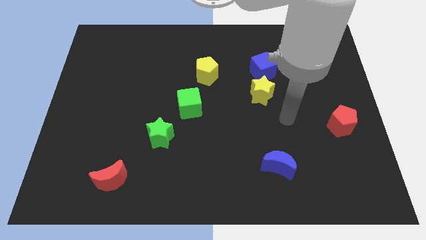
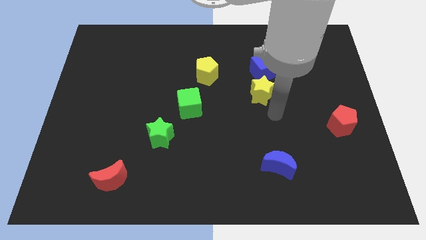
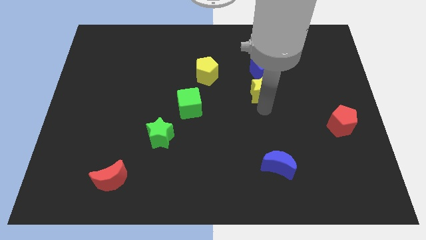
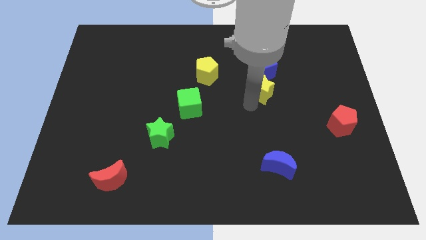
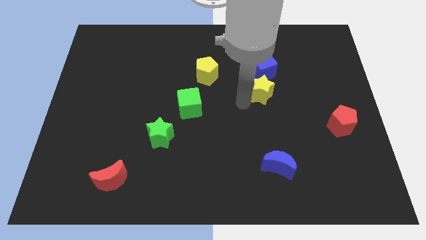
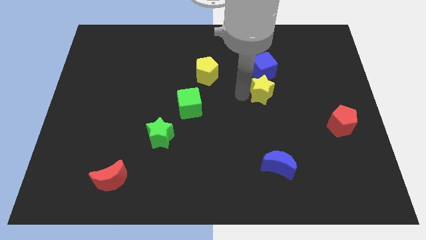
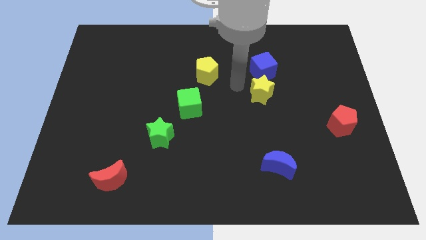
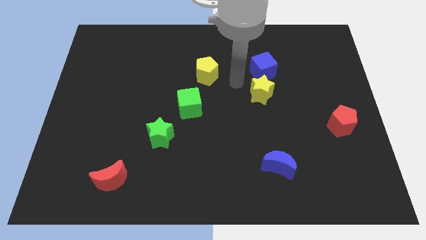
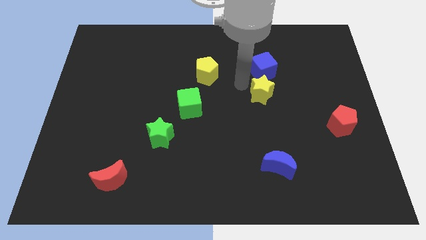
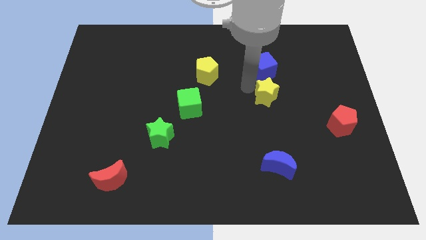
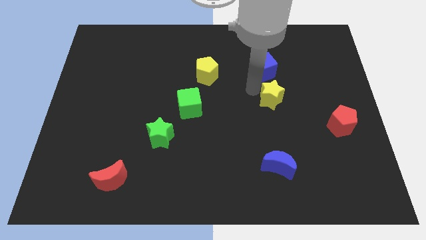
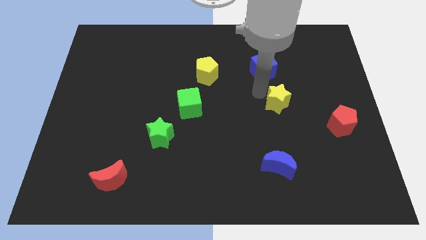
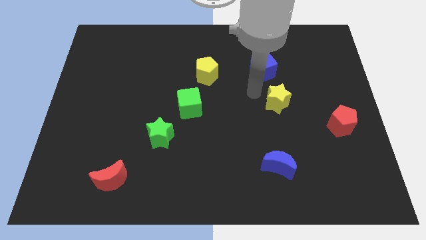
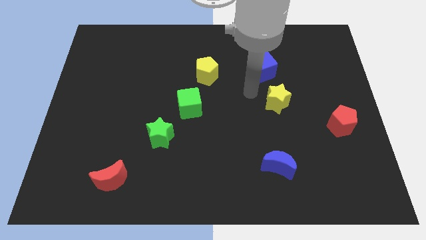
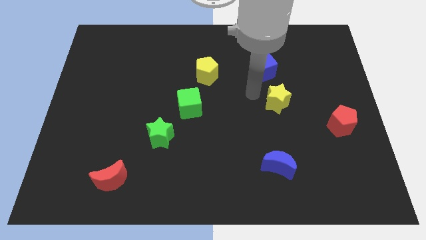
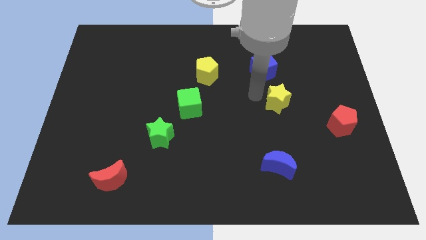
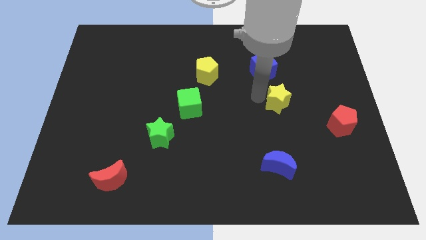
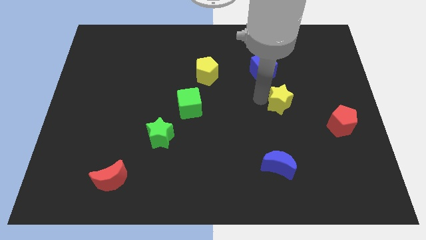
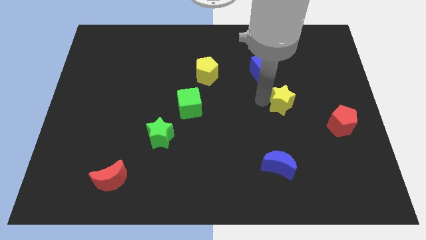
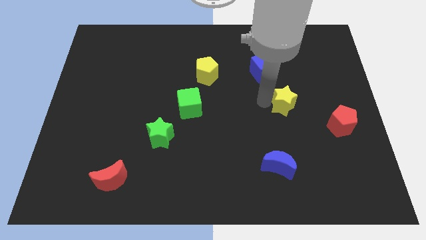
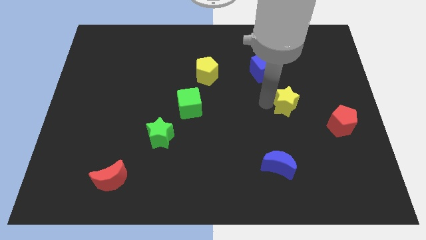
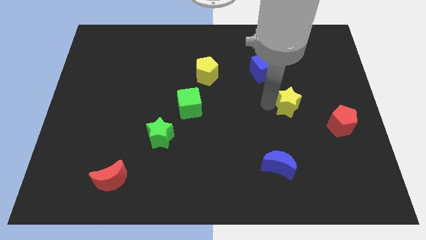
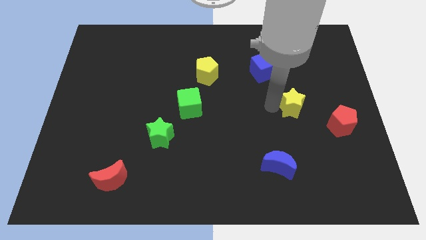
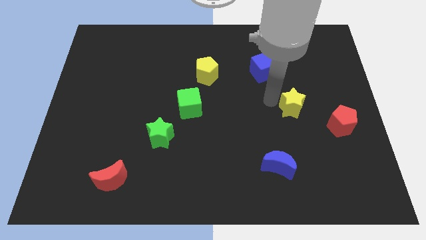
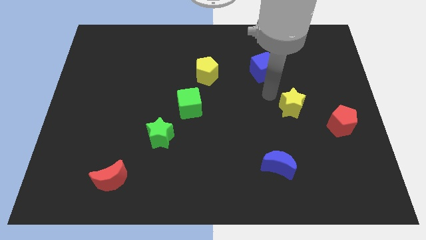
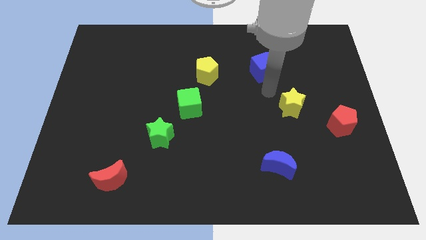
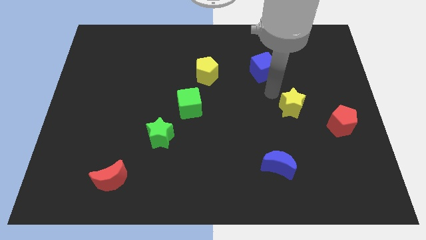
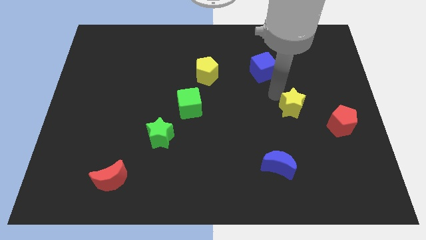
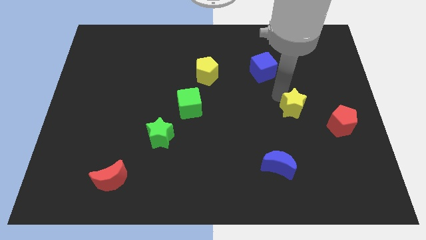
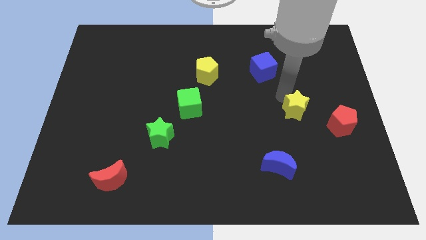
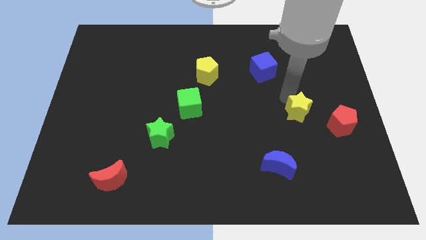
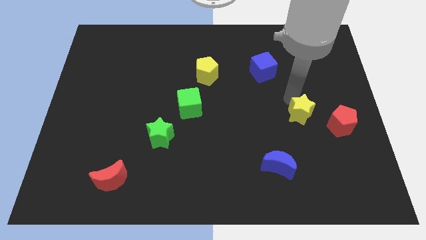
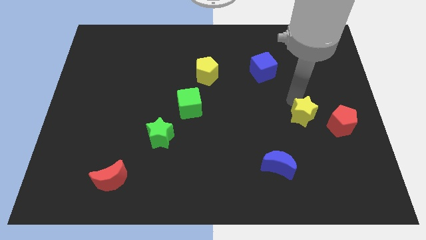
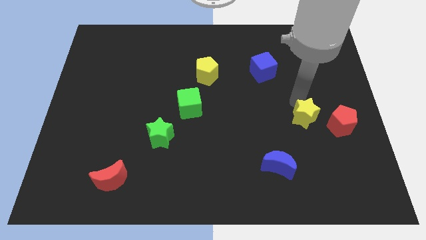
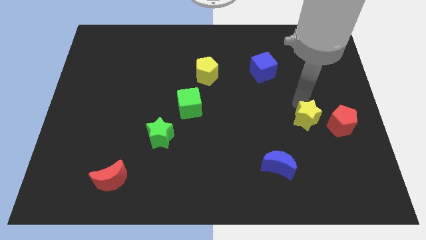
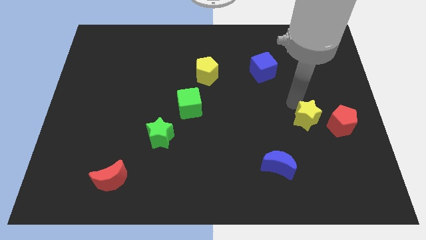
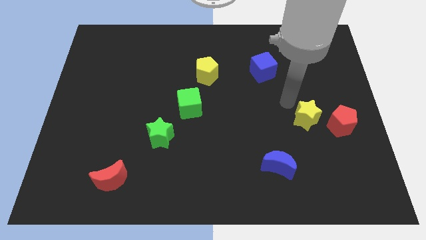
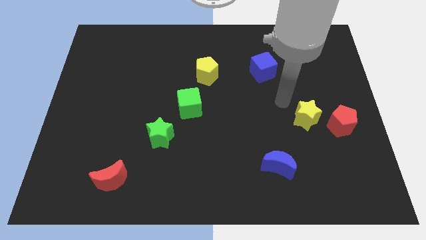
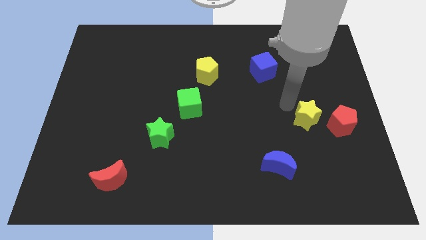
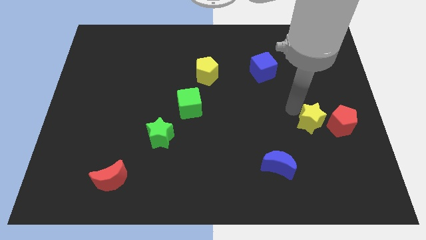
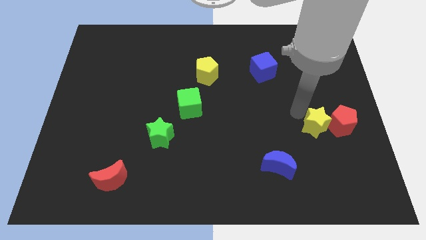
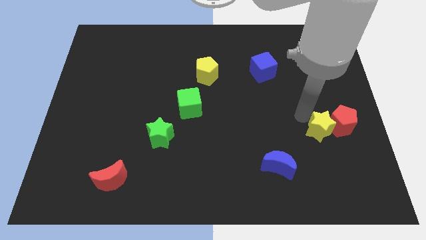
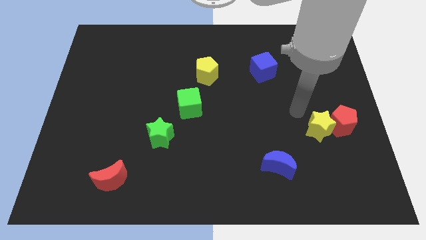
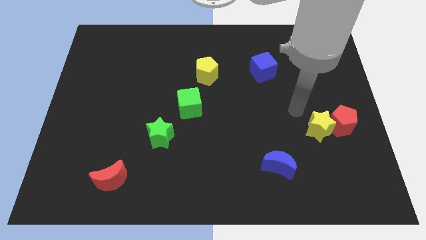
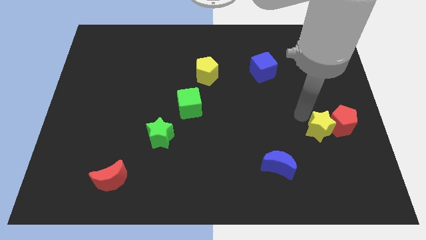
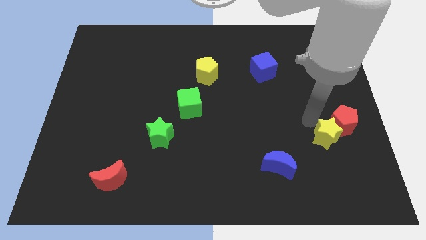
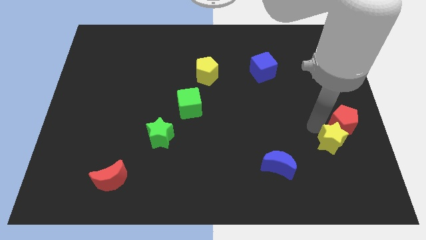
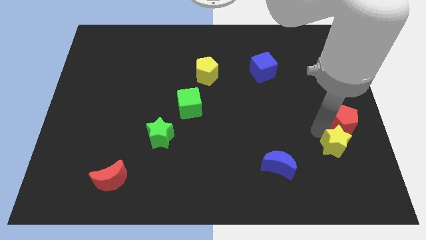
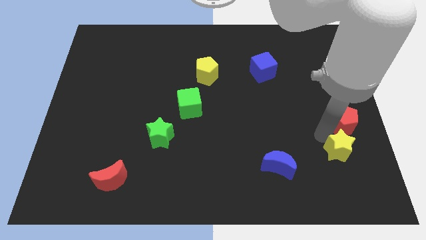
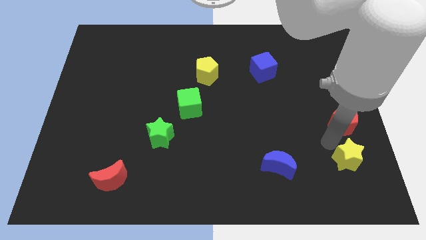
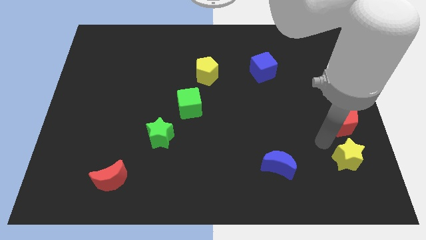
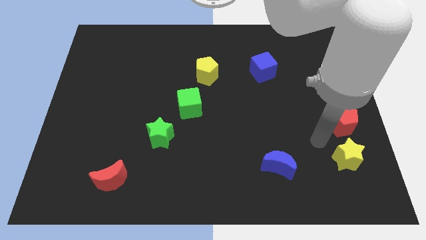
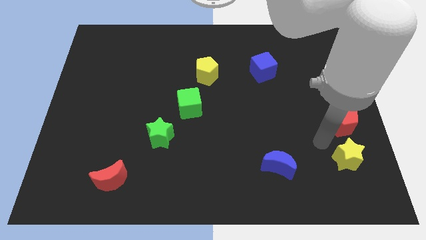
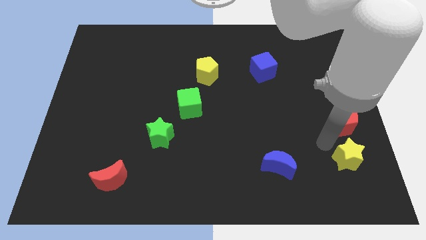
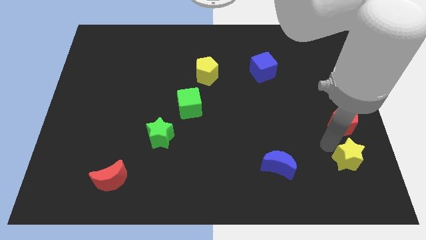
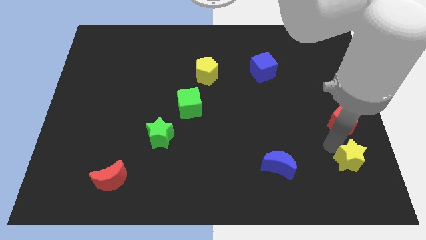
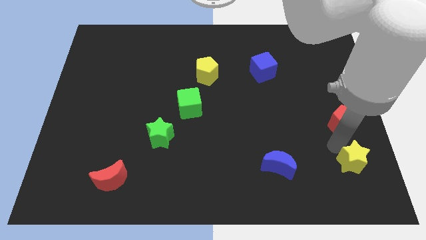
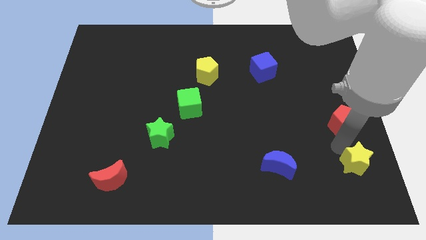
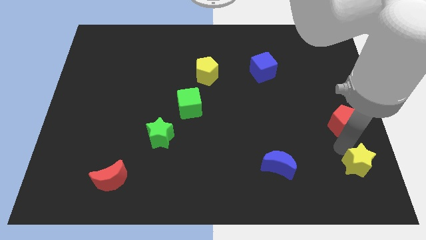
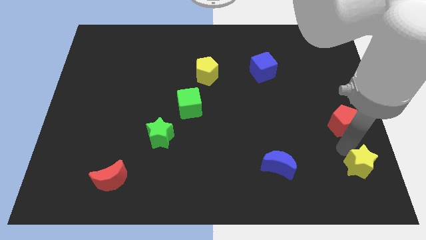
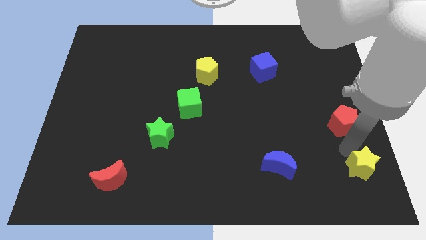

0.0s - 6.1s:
push the yellow star to the lower right corner
